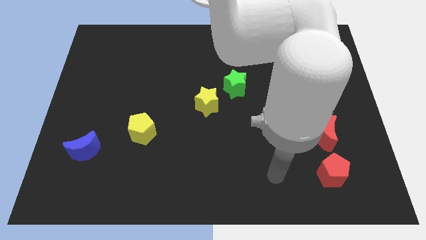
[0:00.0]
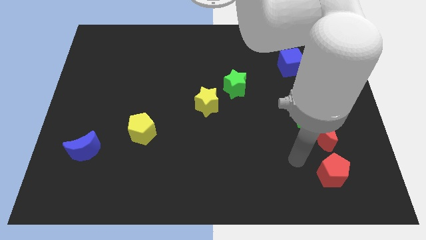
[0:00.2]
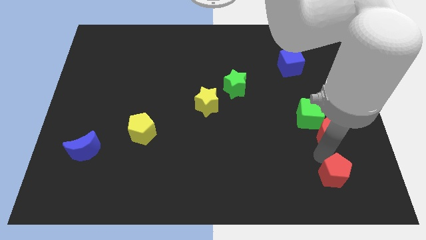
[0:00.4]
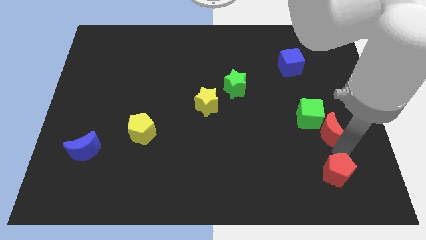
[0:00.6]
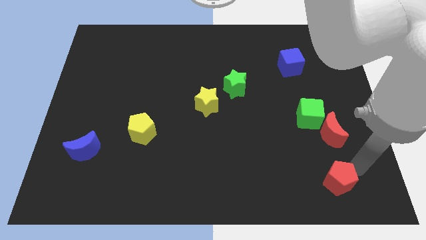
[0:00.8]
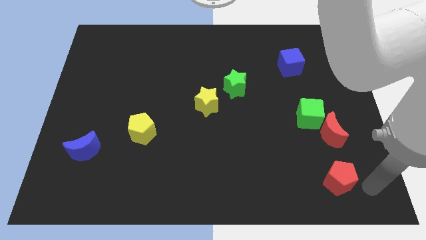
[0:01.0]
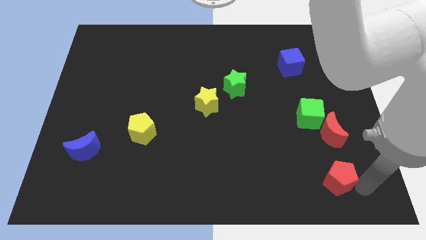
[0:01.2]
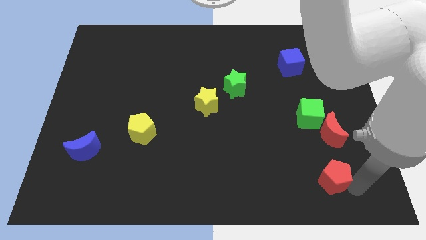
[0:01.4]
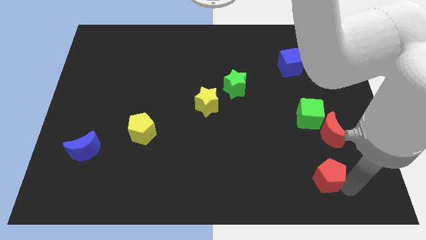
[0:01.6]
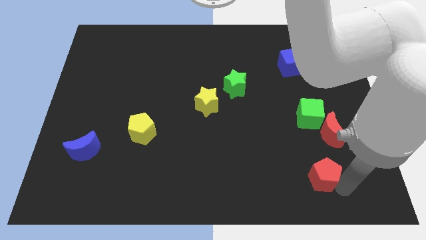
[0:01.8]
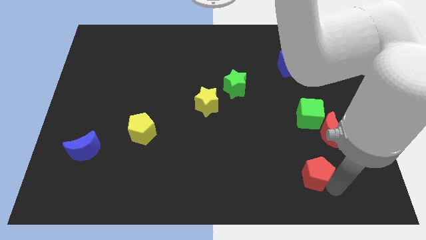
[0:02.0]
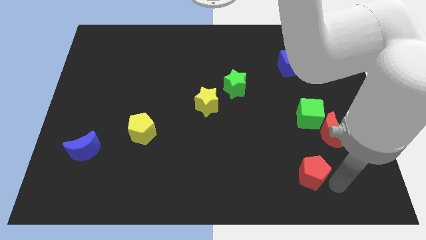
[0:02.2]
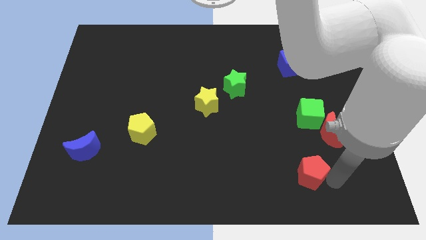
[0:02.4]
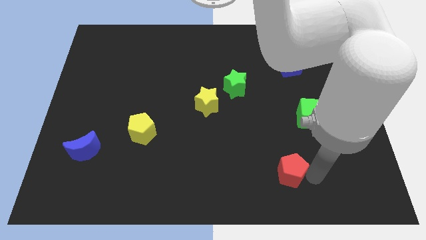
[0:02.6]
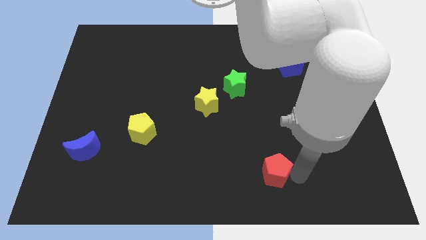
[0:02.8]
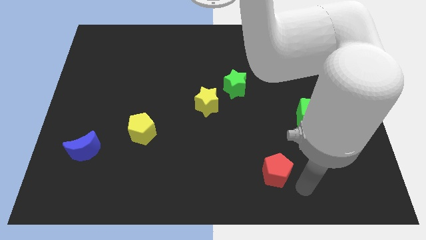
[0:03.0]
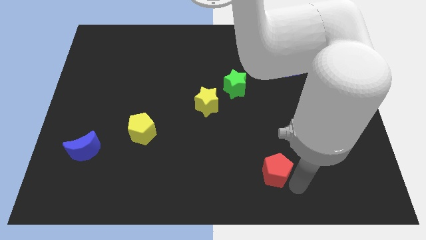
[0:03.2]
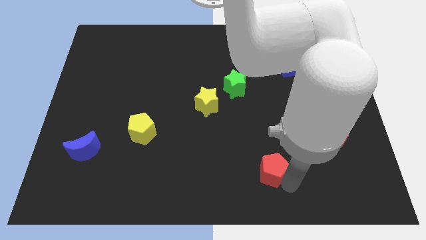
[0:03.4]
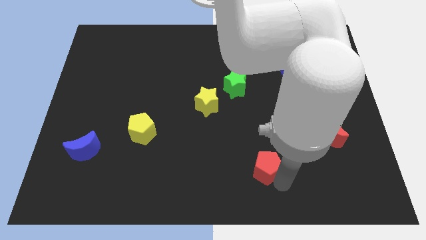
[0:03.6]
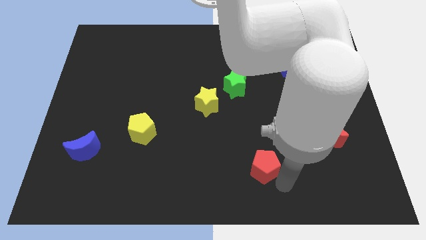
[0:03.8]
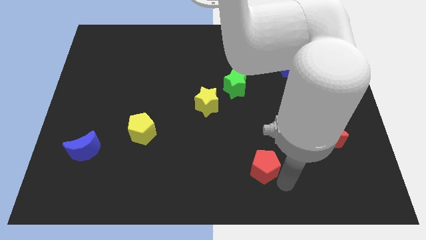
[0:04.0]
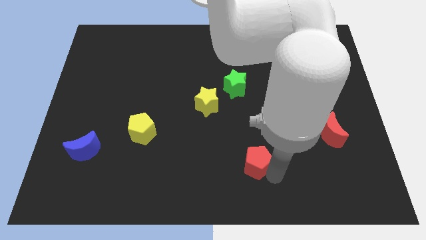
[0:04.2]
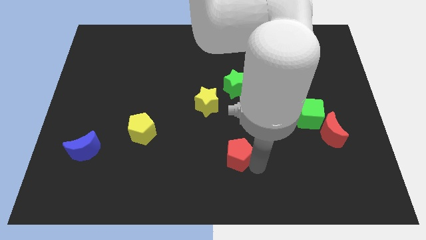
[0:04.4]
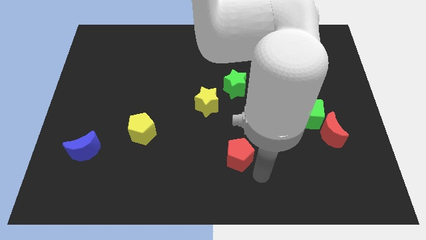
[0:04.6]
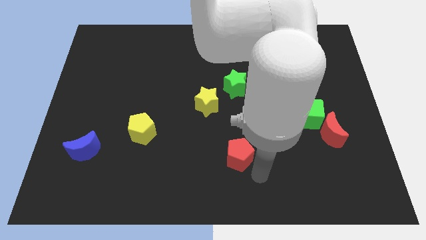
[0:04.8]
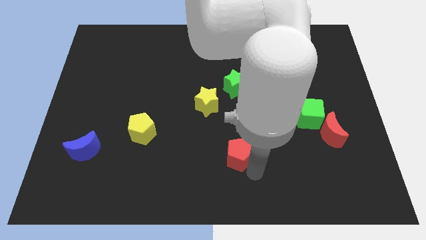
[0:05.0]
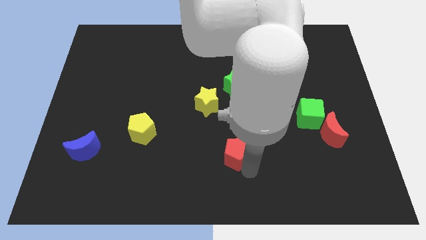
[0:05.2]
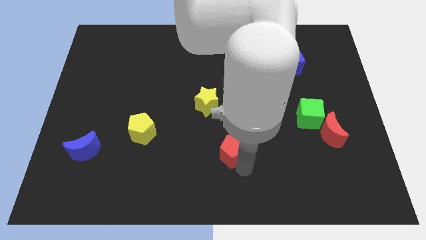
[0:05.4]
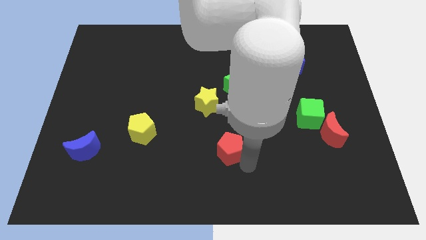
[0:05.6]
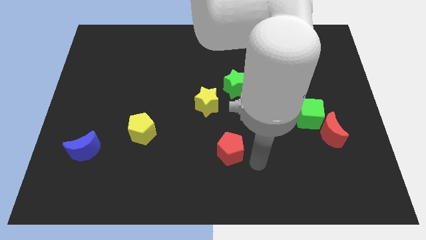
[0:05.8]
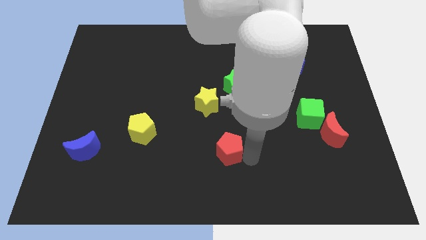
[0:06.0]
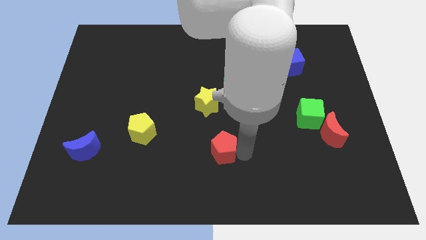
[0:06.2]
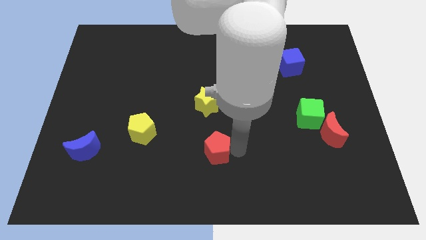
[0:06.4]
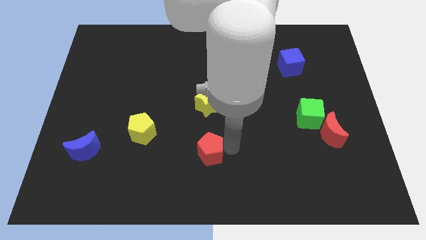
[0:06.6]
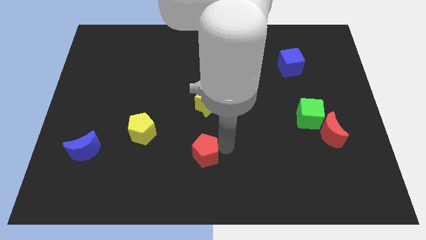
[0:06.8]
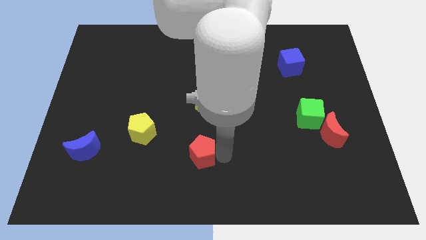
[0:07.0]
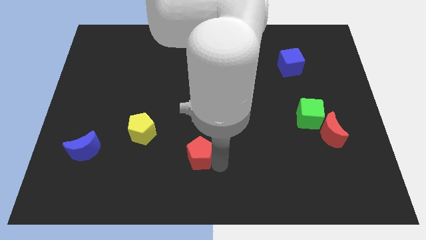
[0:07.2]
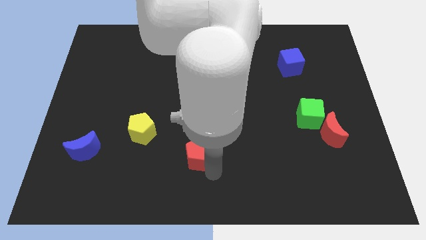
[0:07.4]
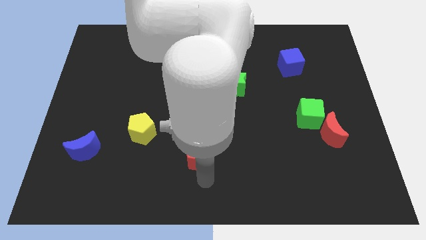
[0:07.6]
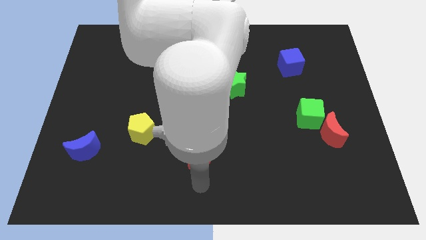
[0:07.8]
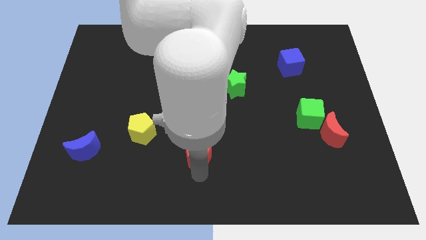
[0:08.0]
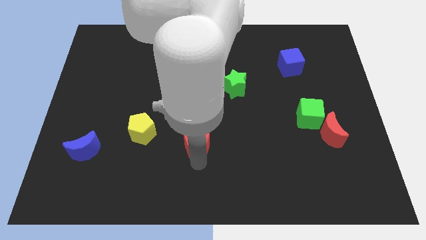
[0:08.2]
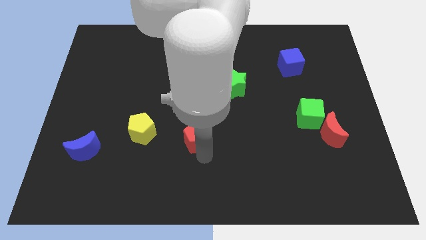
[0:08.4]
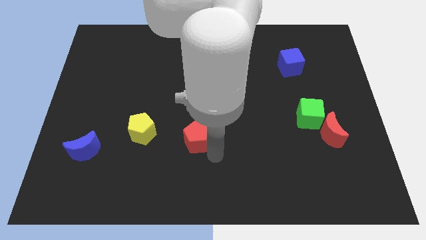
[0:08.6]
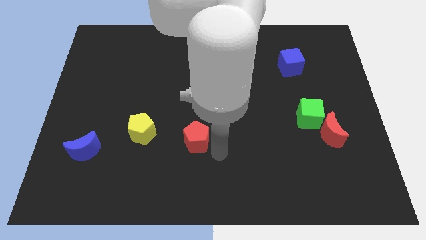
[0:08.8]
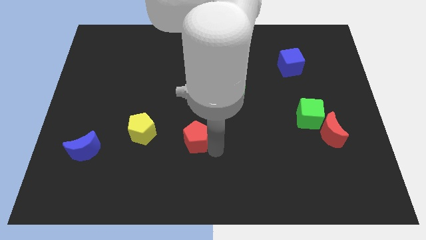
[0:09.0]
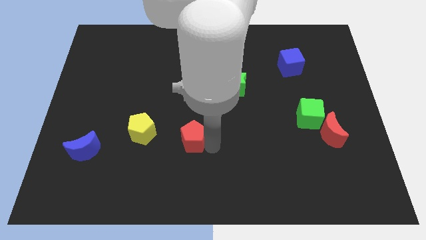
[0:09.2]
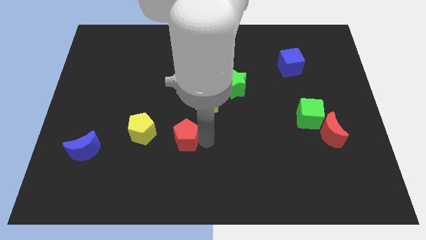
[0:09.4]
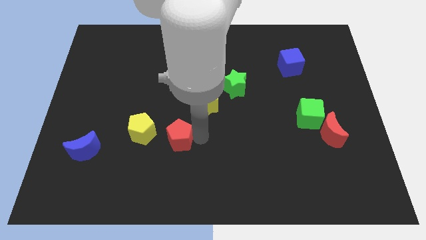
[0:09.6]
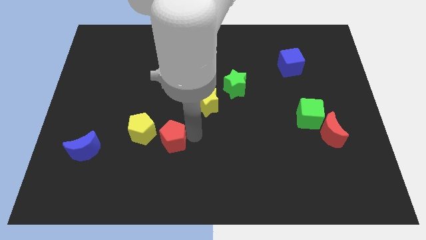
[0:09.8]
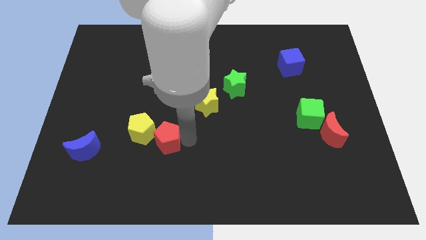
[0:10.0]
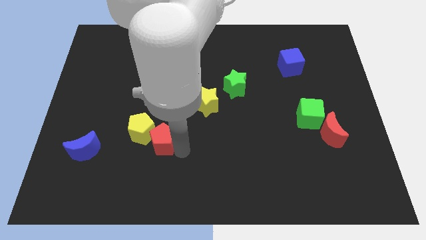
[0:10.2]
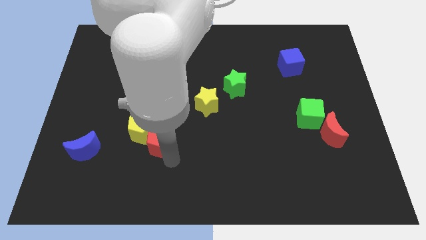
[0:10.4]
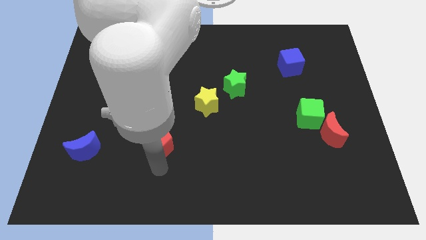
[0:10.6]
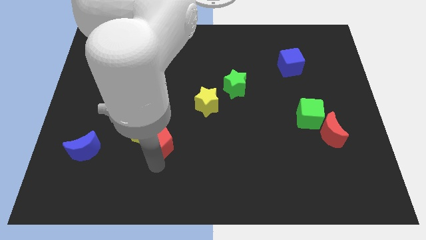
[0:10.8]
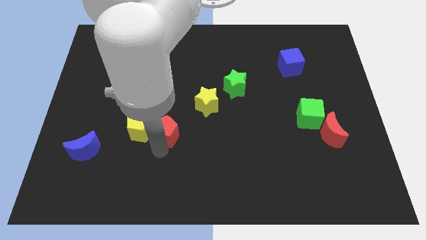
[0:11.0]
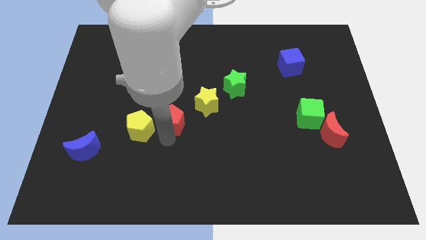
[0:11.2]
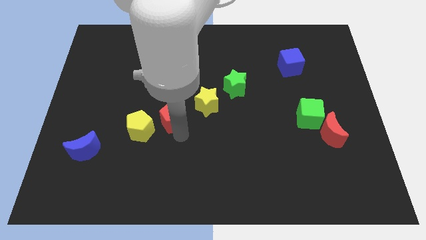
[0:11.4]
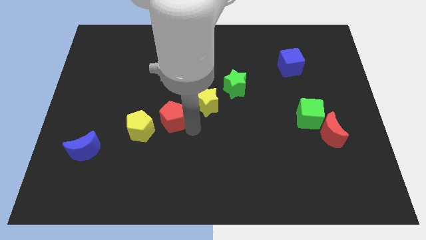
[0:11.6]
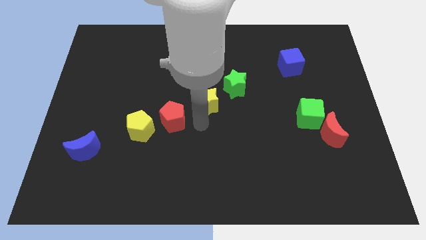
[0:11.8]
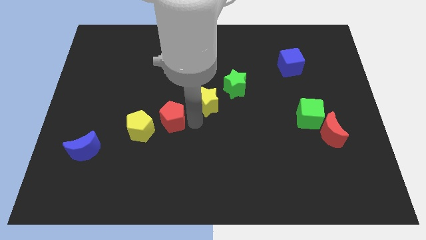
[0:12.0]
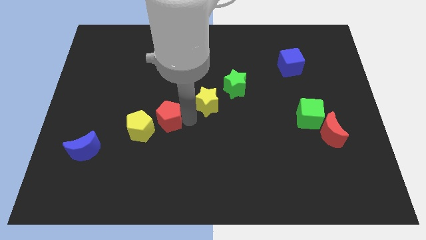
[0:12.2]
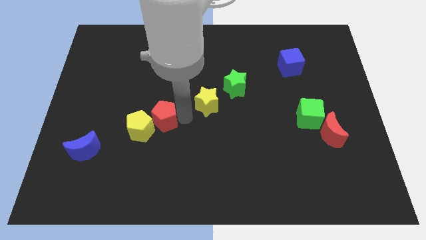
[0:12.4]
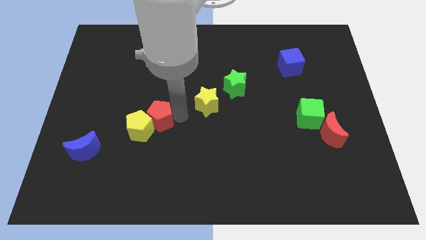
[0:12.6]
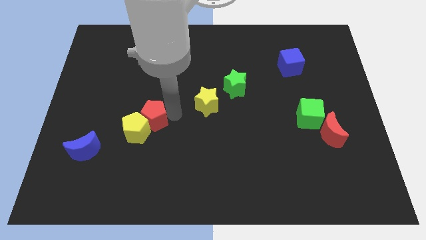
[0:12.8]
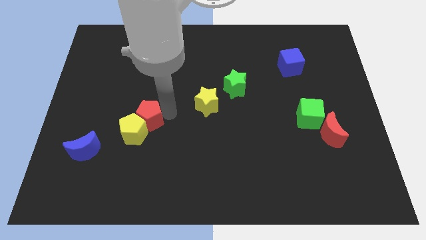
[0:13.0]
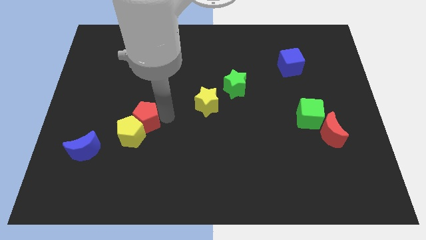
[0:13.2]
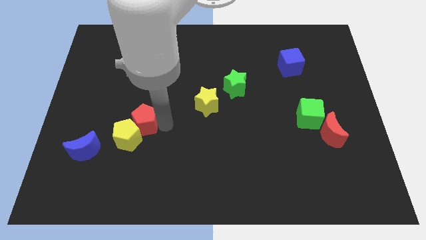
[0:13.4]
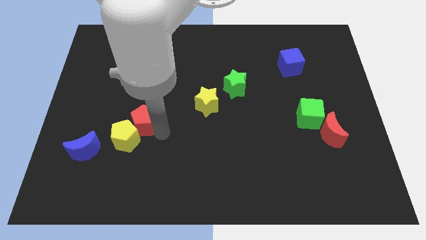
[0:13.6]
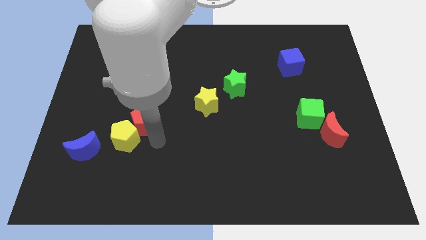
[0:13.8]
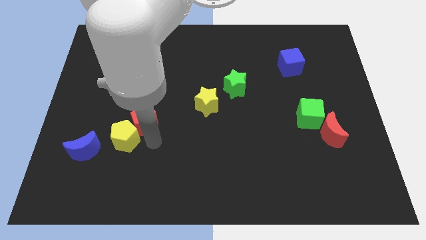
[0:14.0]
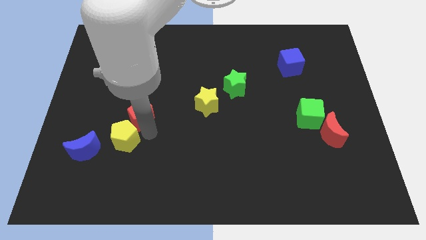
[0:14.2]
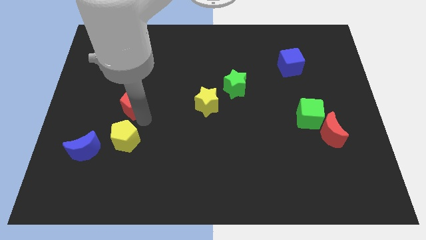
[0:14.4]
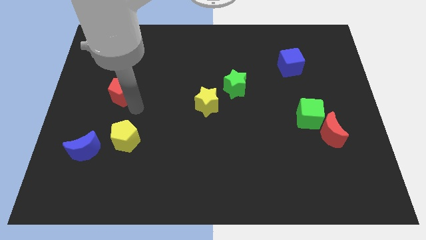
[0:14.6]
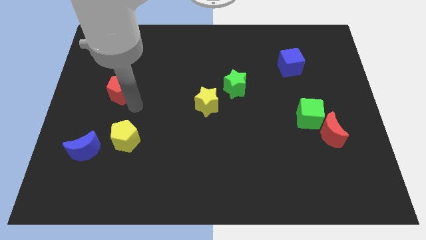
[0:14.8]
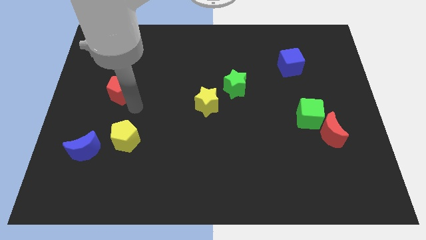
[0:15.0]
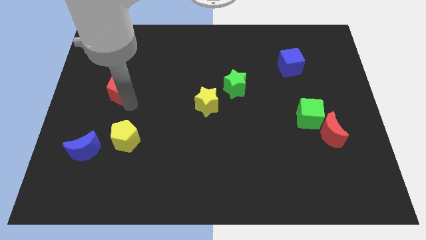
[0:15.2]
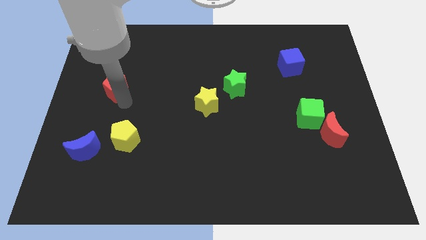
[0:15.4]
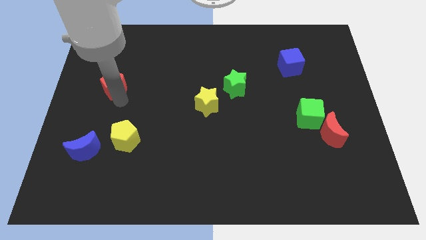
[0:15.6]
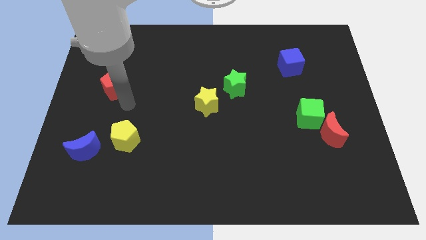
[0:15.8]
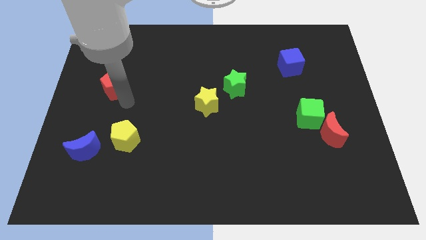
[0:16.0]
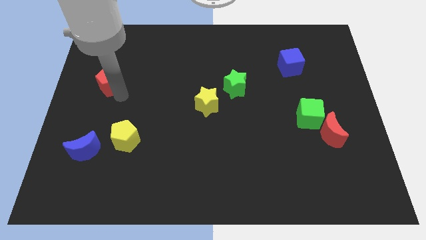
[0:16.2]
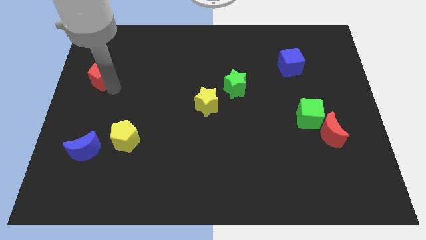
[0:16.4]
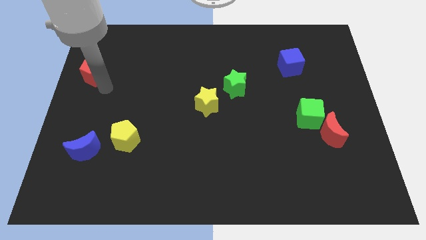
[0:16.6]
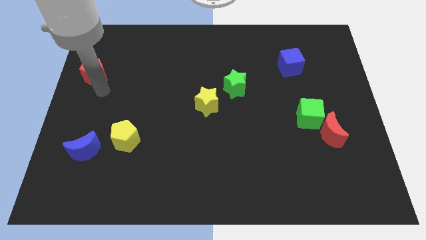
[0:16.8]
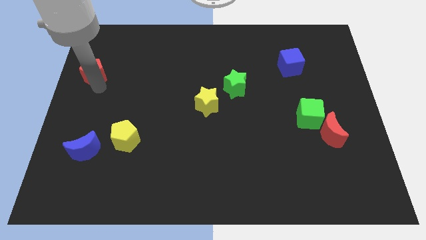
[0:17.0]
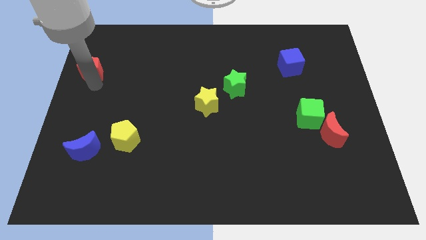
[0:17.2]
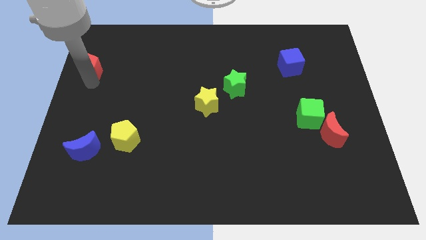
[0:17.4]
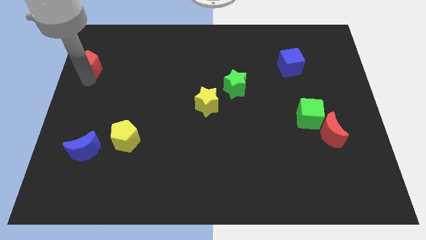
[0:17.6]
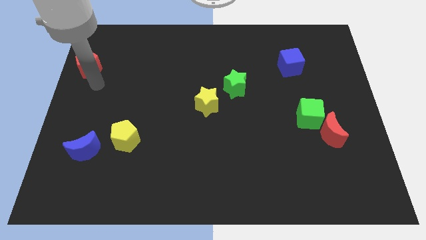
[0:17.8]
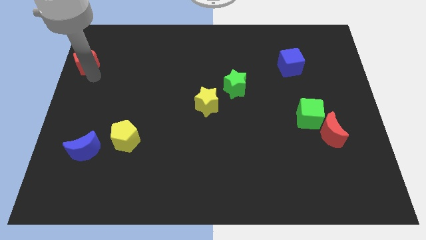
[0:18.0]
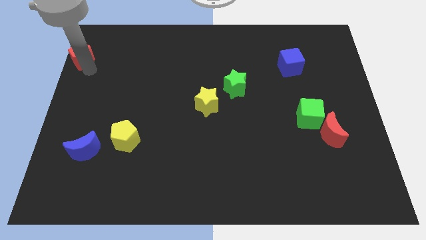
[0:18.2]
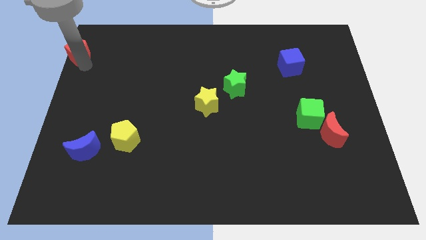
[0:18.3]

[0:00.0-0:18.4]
push the red pentagon to the top left corner
